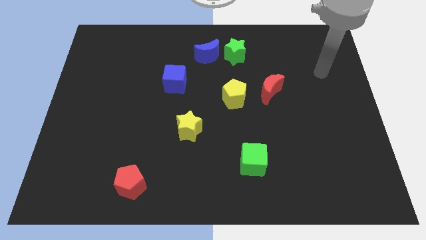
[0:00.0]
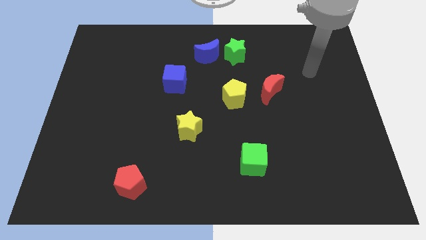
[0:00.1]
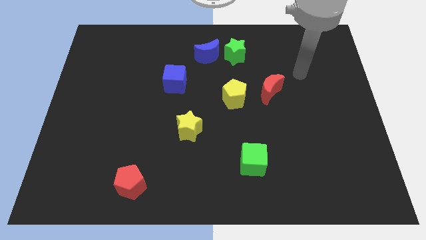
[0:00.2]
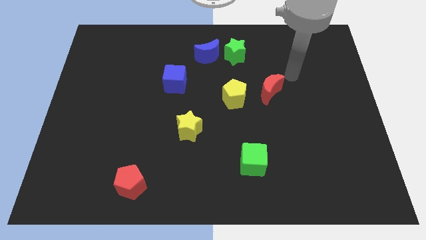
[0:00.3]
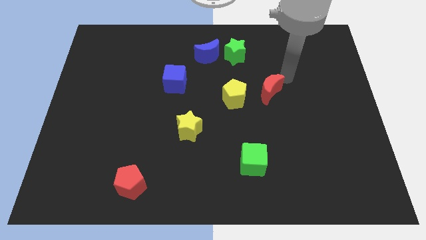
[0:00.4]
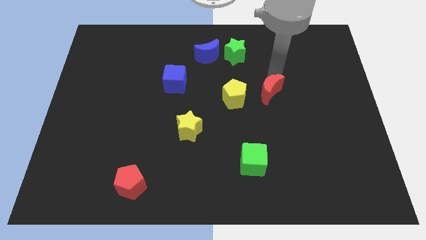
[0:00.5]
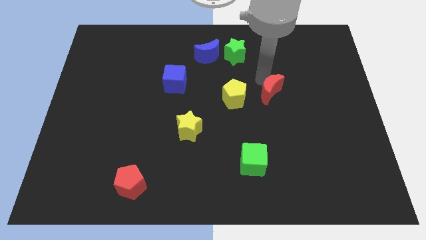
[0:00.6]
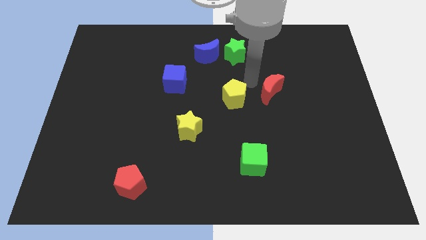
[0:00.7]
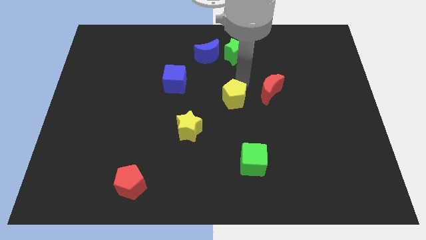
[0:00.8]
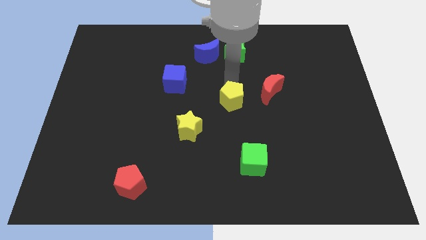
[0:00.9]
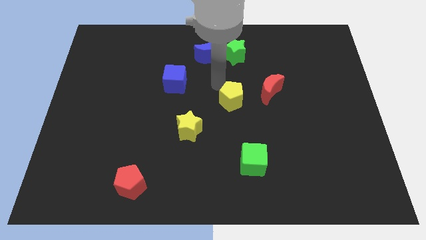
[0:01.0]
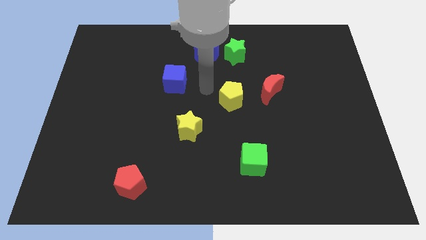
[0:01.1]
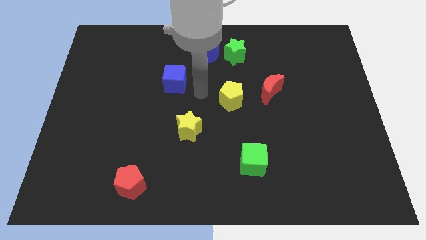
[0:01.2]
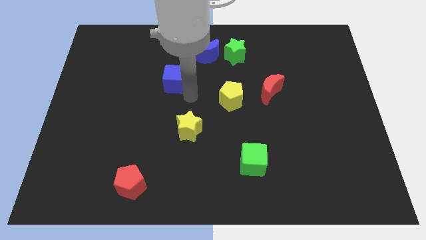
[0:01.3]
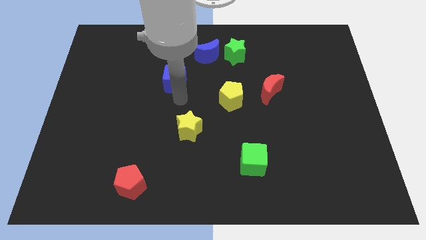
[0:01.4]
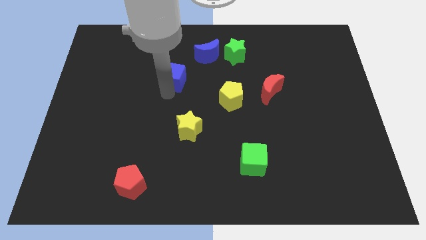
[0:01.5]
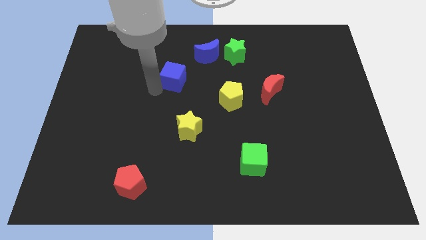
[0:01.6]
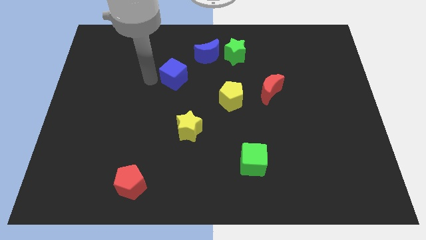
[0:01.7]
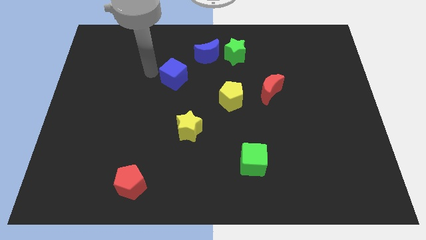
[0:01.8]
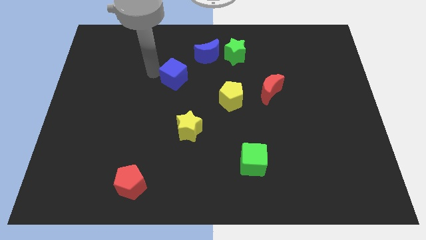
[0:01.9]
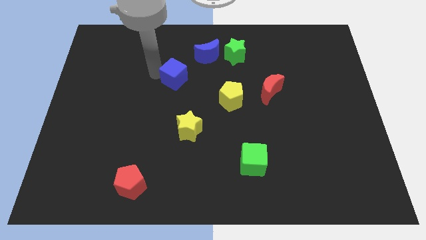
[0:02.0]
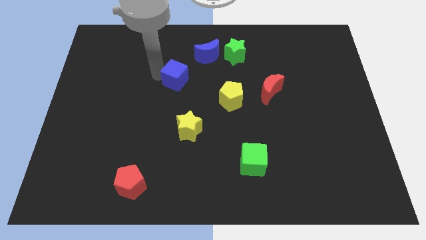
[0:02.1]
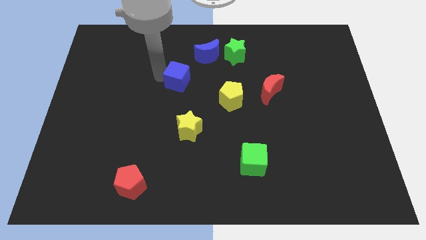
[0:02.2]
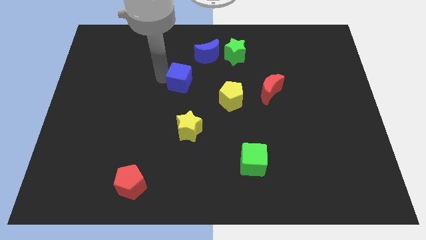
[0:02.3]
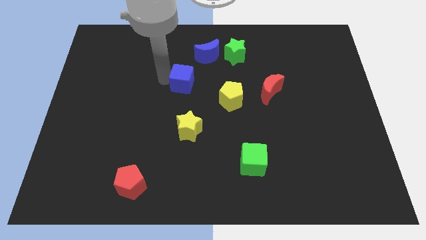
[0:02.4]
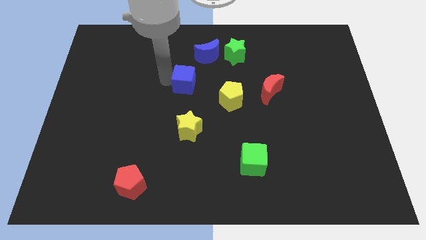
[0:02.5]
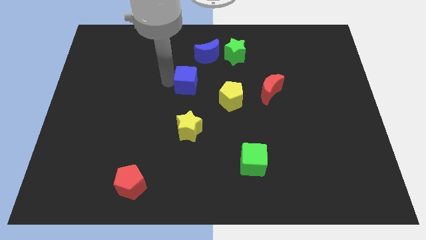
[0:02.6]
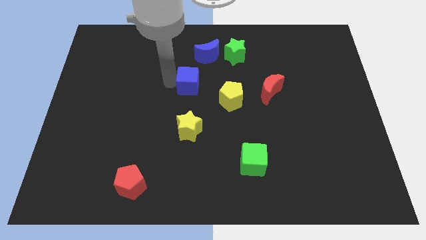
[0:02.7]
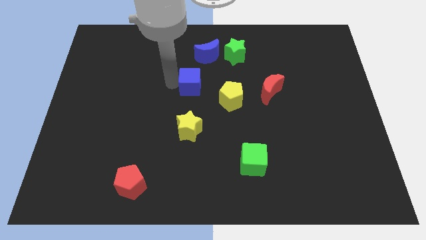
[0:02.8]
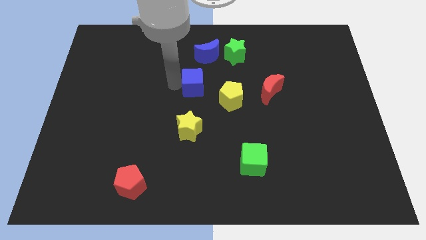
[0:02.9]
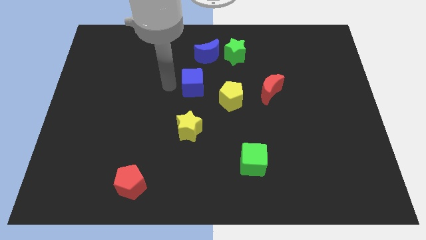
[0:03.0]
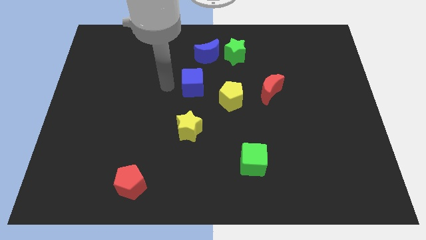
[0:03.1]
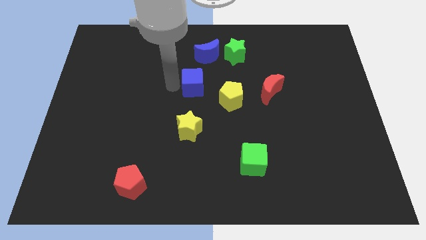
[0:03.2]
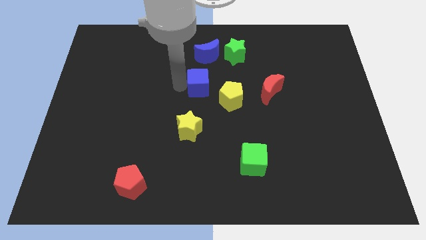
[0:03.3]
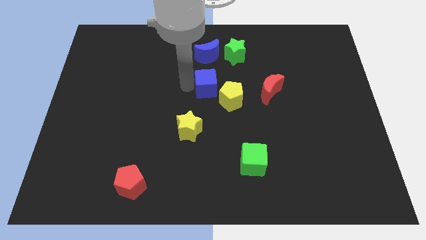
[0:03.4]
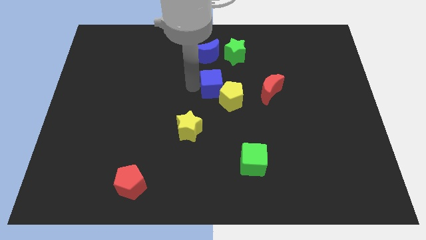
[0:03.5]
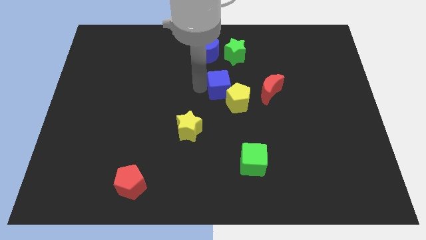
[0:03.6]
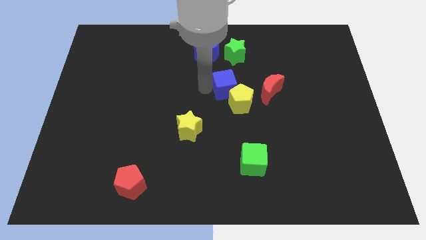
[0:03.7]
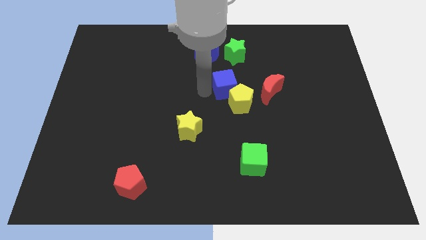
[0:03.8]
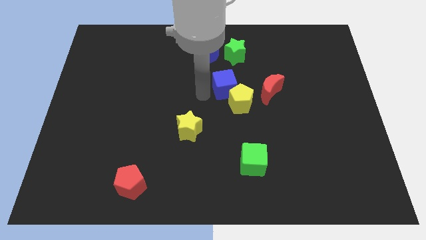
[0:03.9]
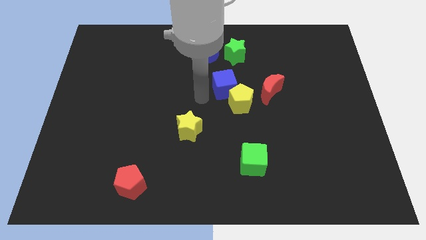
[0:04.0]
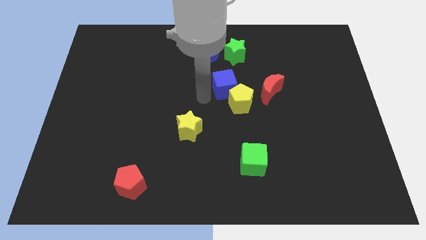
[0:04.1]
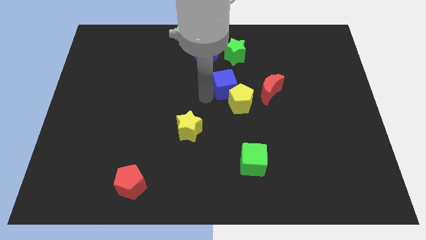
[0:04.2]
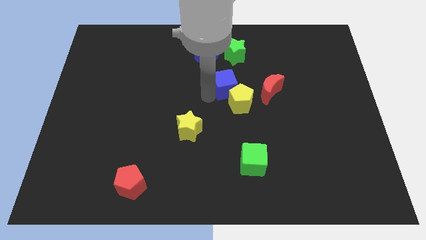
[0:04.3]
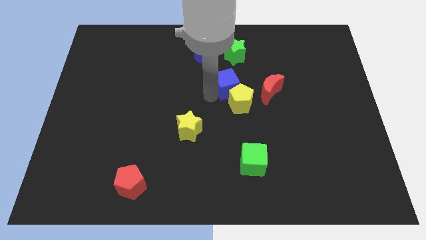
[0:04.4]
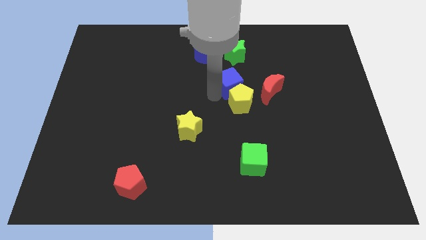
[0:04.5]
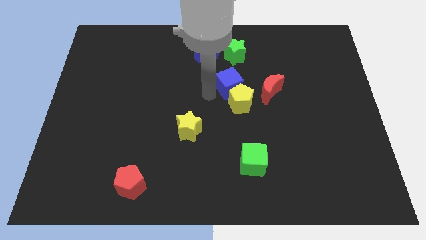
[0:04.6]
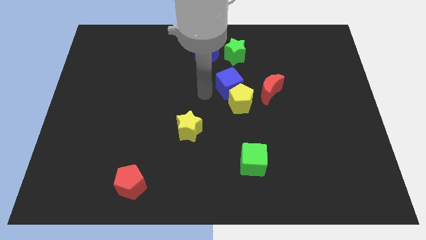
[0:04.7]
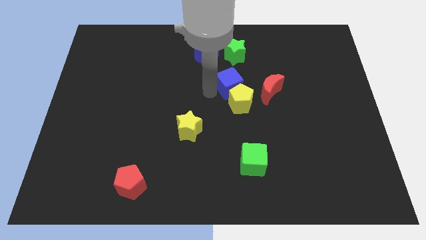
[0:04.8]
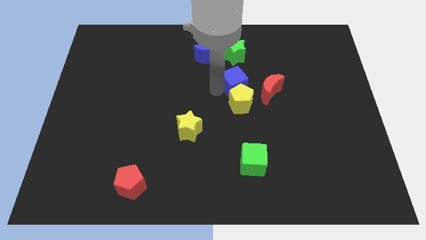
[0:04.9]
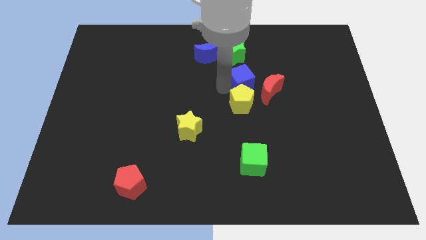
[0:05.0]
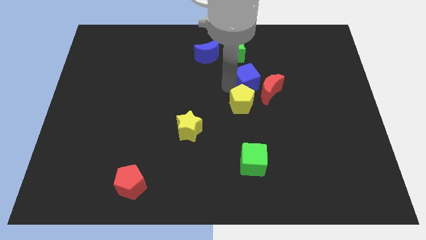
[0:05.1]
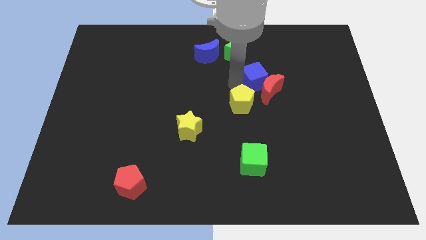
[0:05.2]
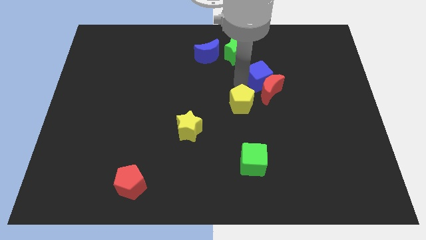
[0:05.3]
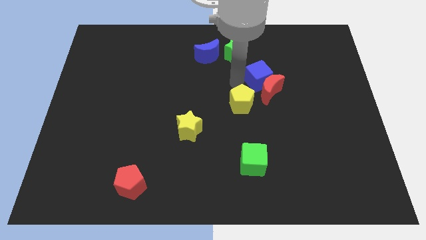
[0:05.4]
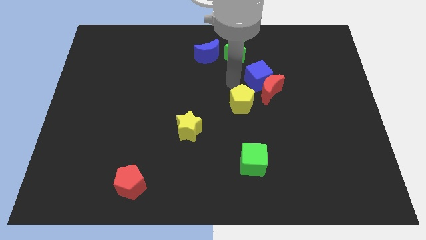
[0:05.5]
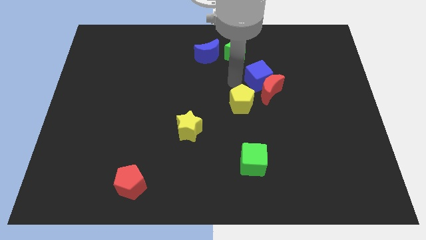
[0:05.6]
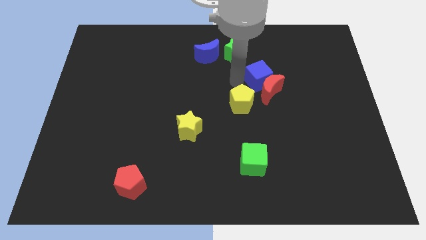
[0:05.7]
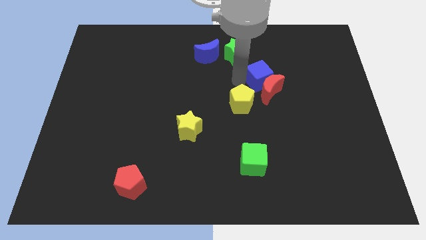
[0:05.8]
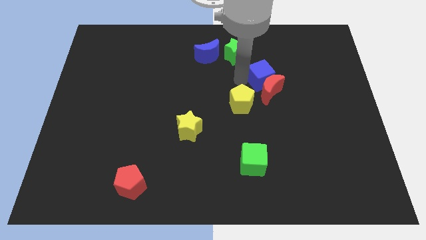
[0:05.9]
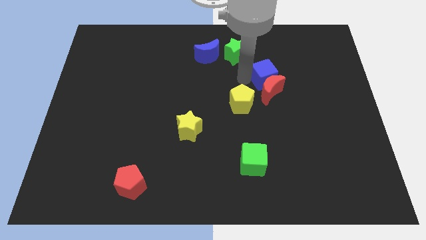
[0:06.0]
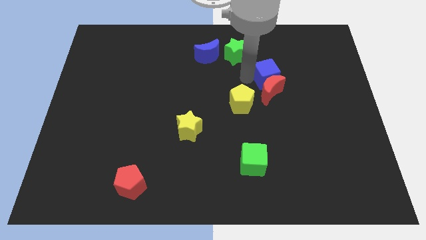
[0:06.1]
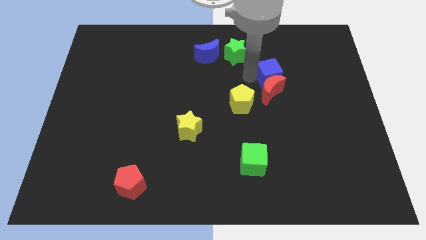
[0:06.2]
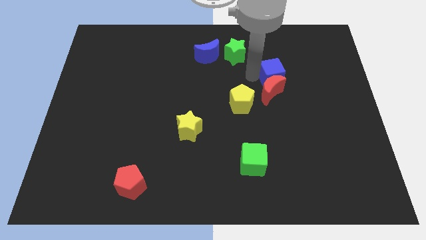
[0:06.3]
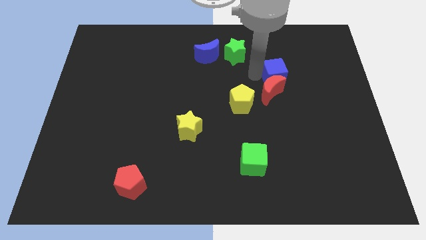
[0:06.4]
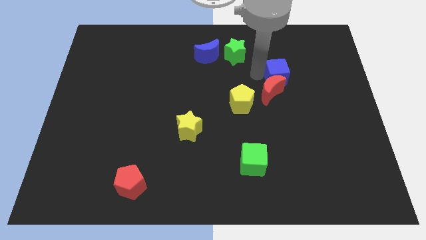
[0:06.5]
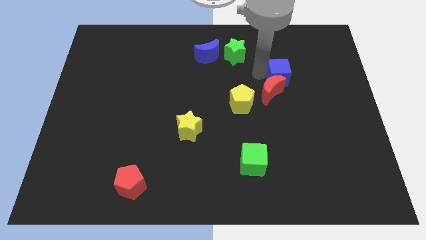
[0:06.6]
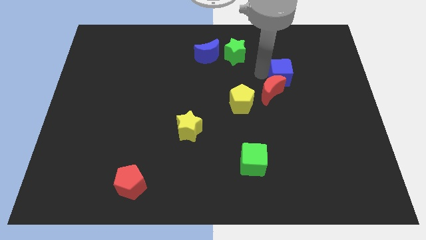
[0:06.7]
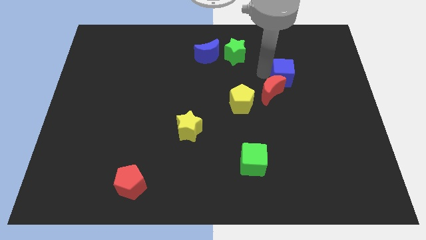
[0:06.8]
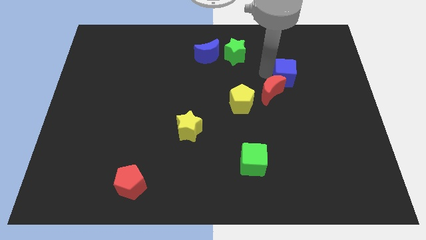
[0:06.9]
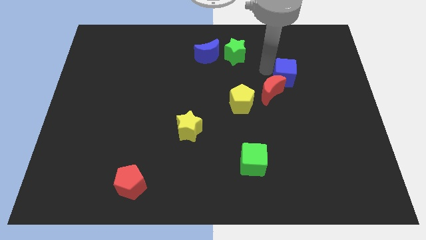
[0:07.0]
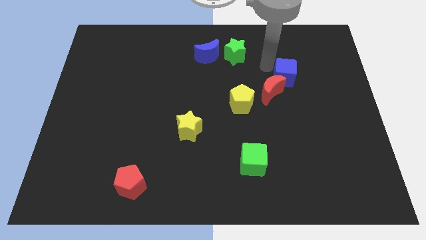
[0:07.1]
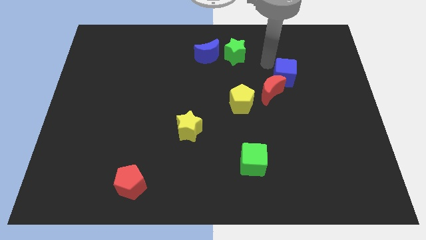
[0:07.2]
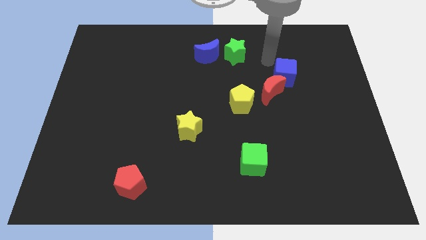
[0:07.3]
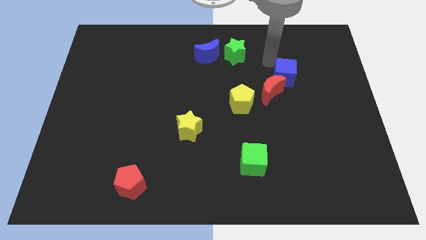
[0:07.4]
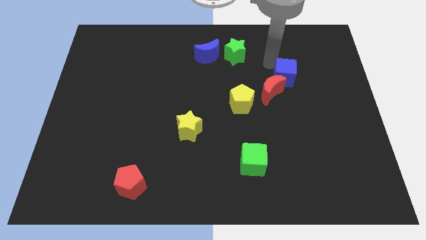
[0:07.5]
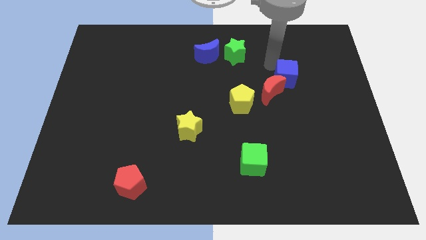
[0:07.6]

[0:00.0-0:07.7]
push the blue cube right of the red moon
